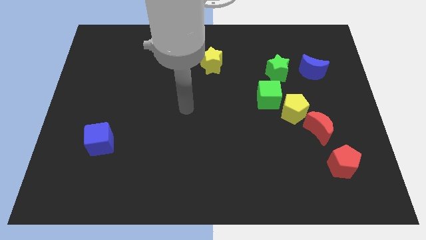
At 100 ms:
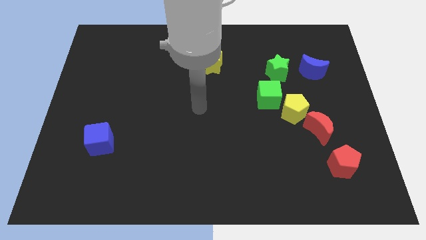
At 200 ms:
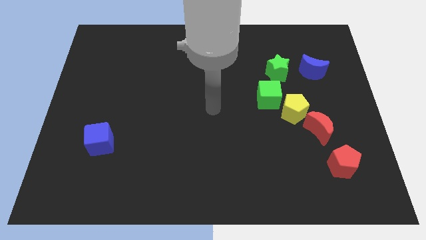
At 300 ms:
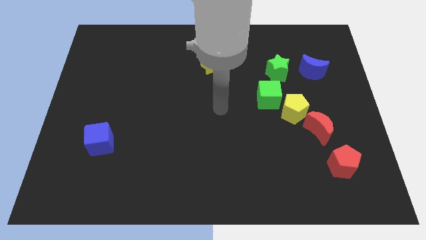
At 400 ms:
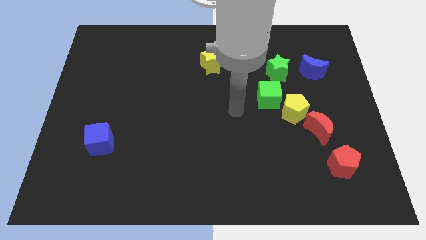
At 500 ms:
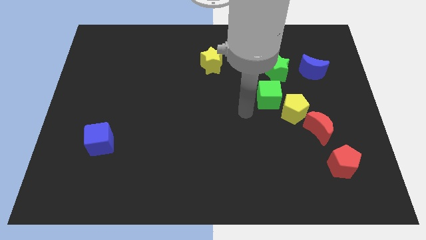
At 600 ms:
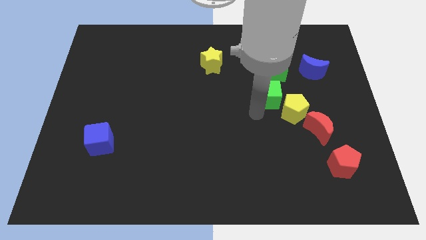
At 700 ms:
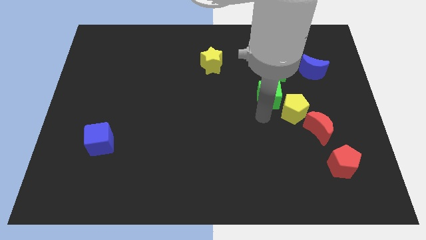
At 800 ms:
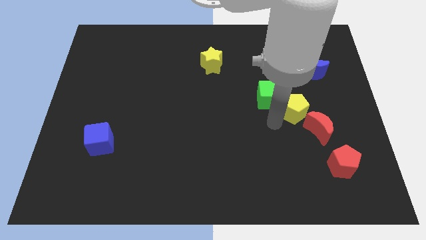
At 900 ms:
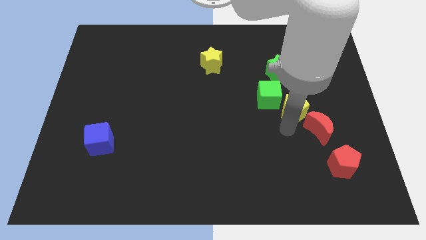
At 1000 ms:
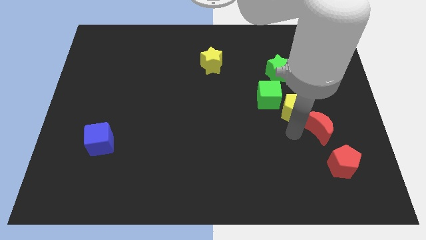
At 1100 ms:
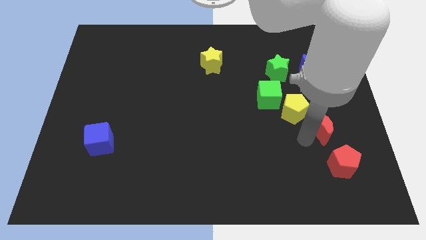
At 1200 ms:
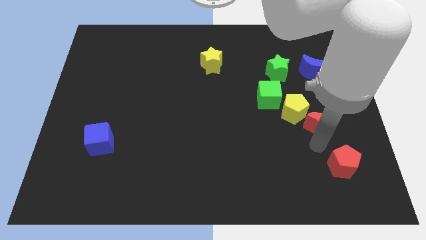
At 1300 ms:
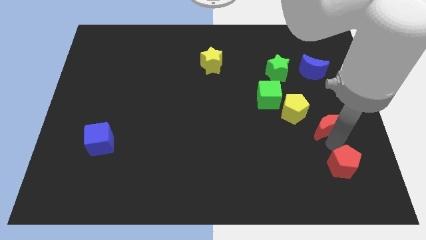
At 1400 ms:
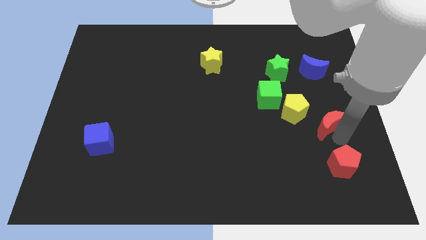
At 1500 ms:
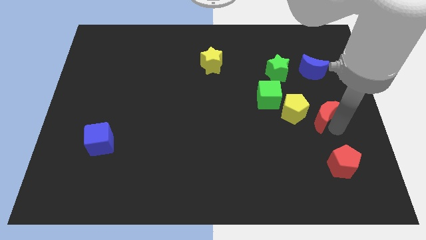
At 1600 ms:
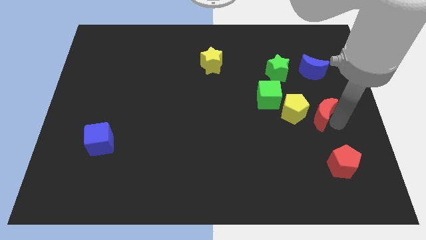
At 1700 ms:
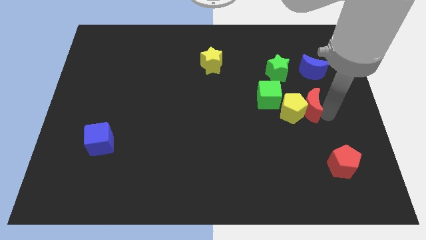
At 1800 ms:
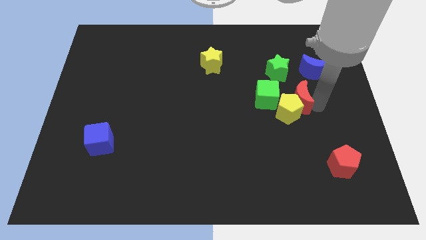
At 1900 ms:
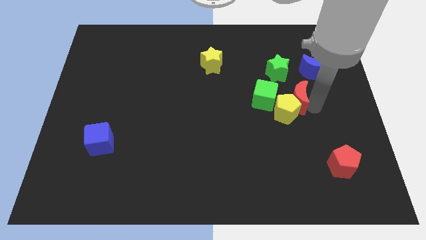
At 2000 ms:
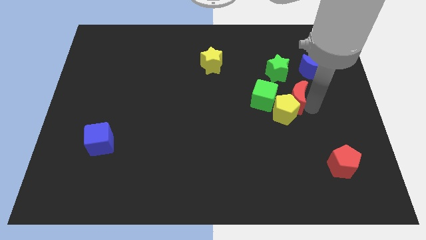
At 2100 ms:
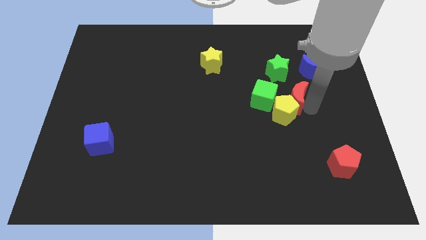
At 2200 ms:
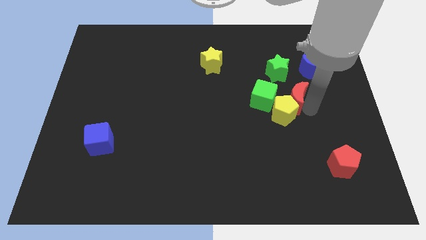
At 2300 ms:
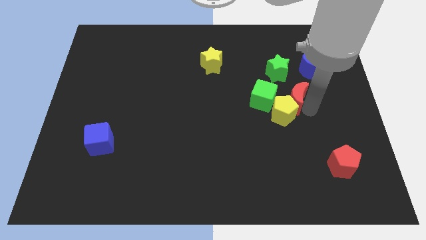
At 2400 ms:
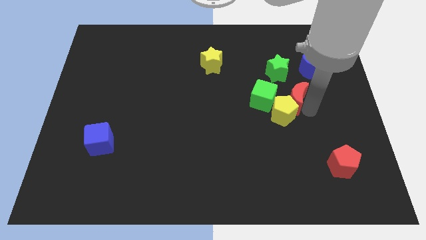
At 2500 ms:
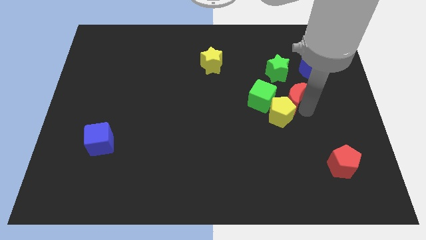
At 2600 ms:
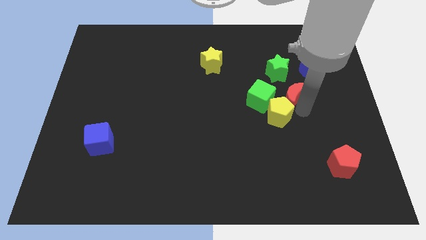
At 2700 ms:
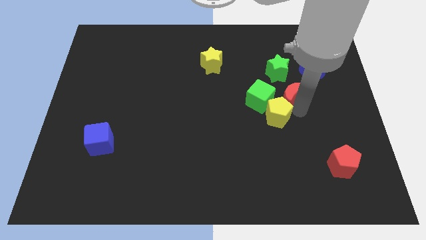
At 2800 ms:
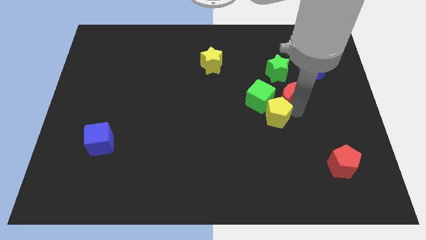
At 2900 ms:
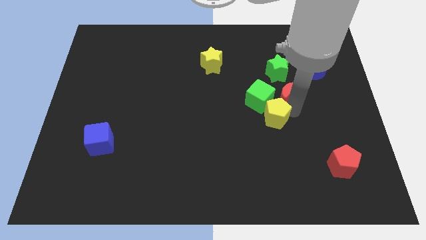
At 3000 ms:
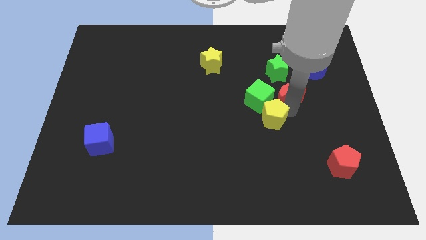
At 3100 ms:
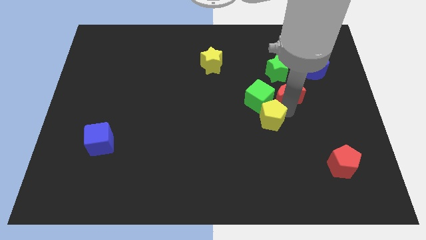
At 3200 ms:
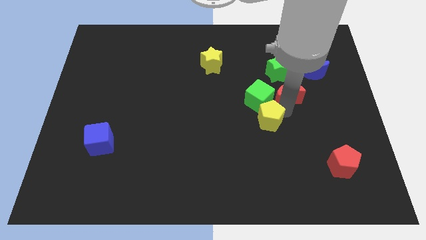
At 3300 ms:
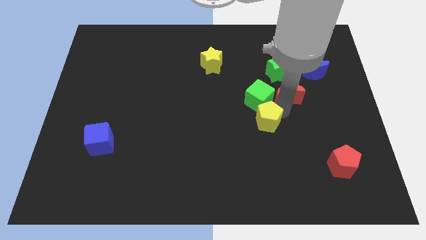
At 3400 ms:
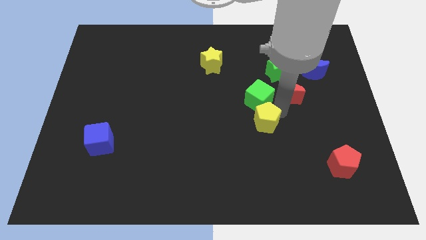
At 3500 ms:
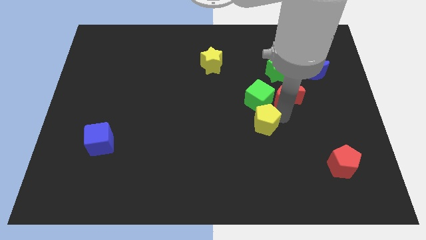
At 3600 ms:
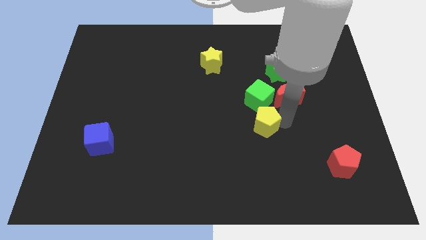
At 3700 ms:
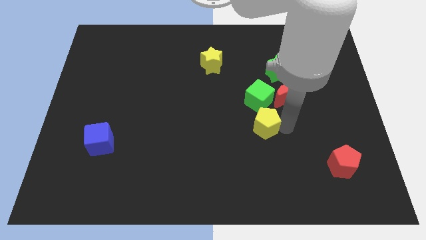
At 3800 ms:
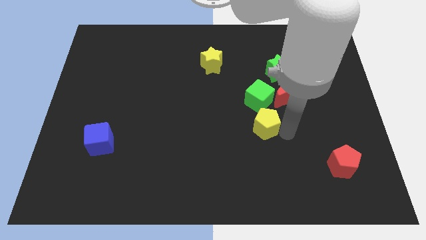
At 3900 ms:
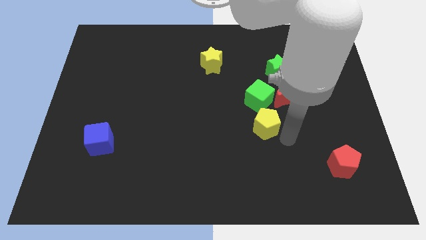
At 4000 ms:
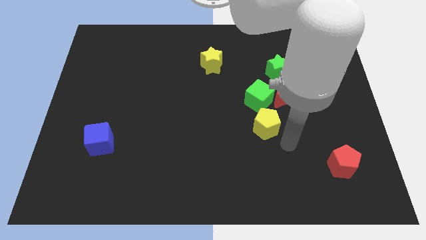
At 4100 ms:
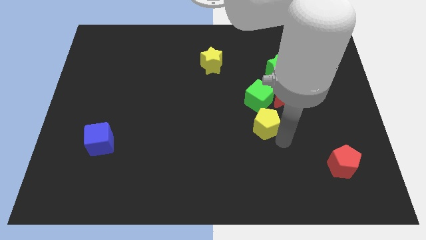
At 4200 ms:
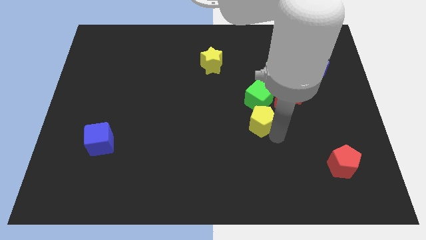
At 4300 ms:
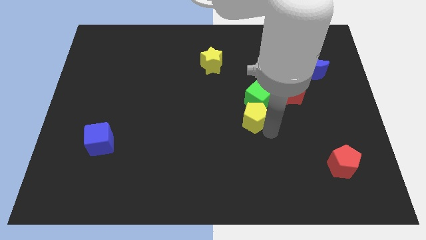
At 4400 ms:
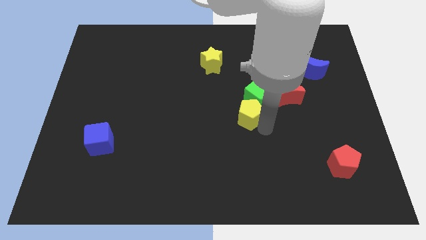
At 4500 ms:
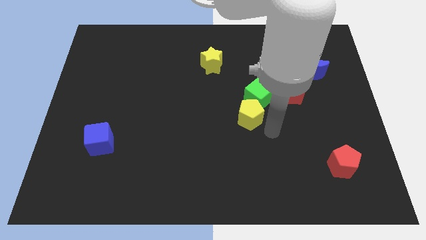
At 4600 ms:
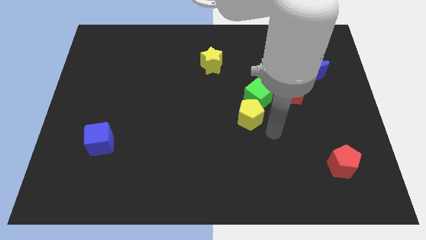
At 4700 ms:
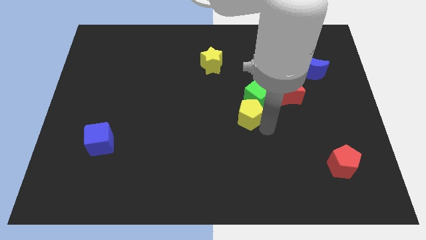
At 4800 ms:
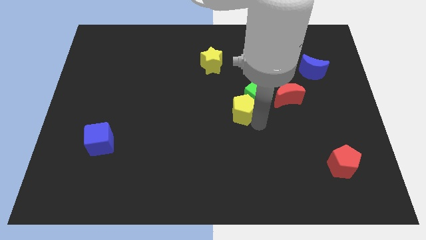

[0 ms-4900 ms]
push the yellow pentagon just left of the green cube

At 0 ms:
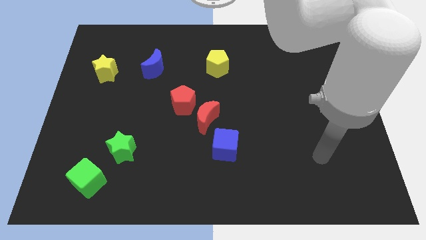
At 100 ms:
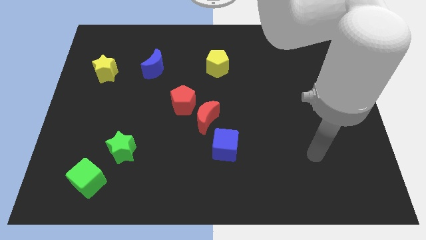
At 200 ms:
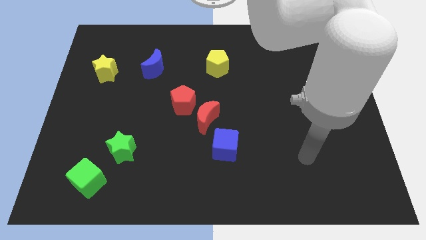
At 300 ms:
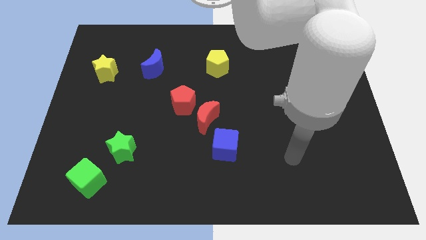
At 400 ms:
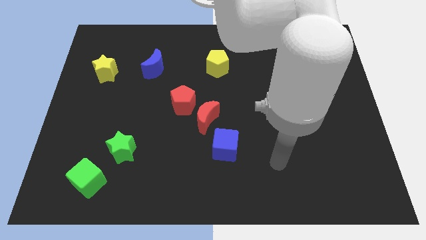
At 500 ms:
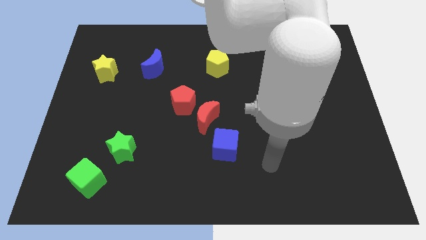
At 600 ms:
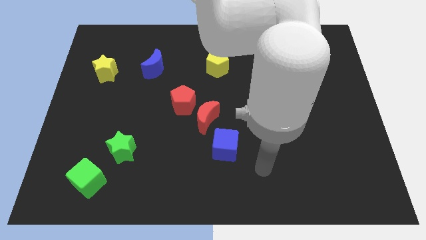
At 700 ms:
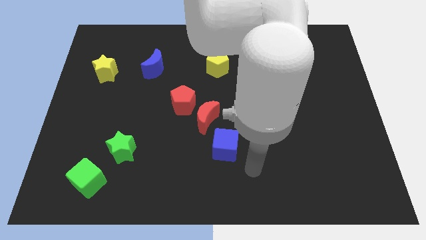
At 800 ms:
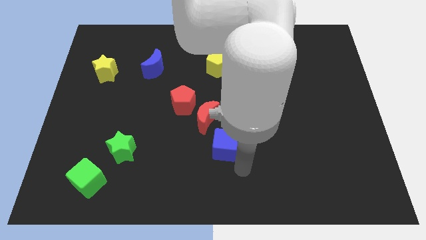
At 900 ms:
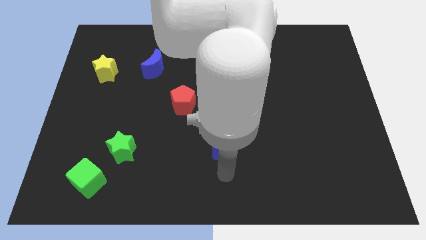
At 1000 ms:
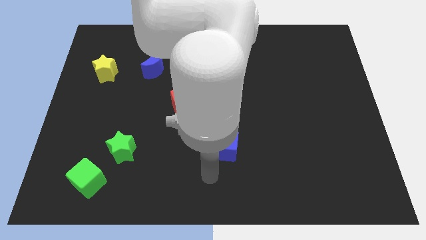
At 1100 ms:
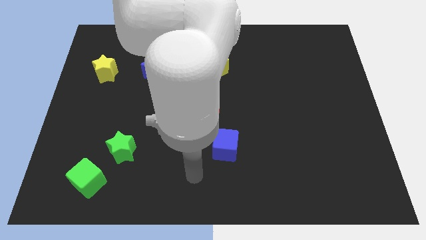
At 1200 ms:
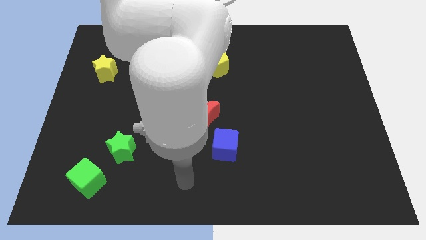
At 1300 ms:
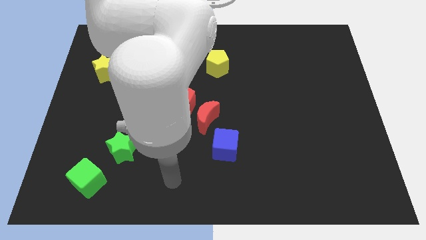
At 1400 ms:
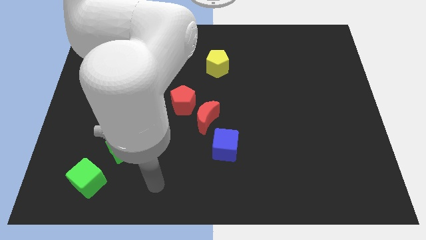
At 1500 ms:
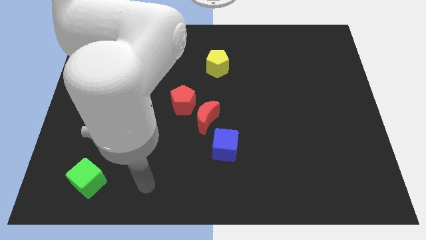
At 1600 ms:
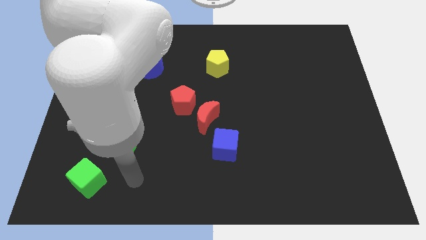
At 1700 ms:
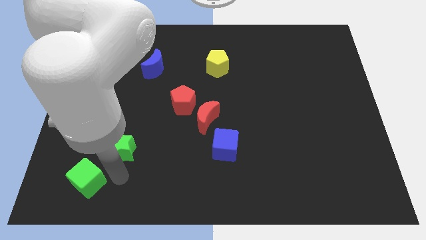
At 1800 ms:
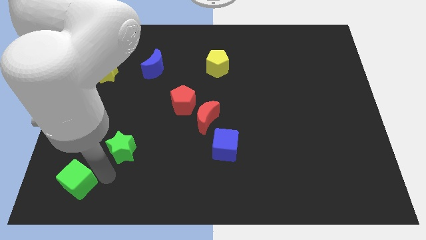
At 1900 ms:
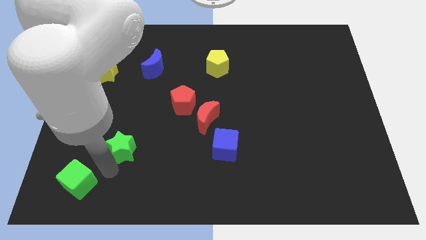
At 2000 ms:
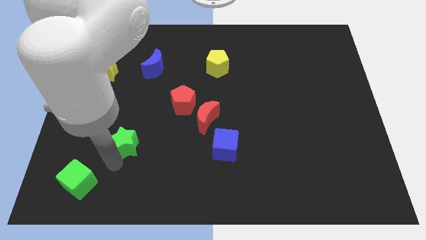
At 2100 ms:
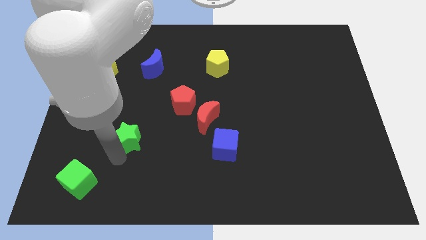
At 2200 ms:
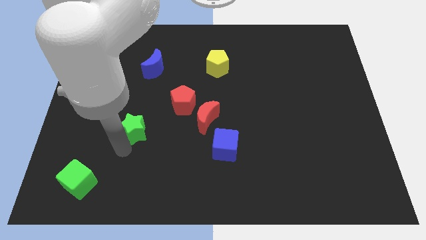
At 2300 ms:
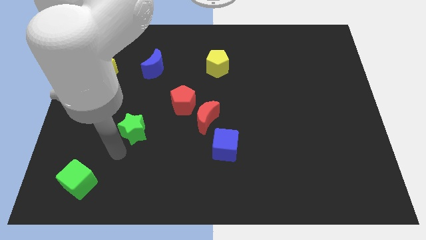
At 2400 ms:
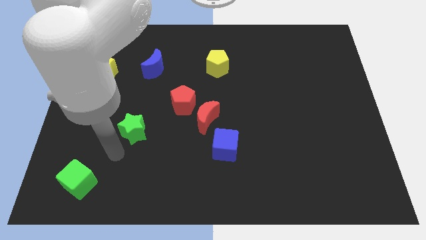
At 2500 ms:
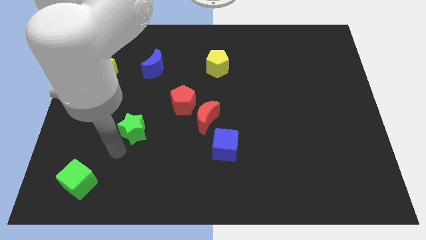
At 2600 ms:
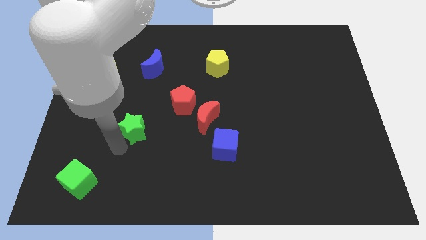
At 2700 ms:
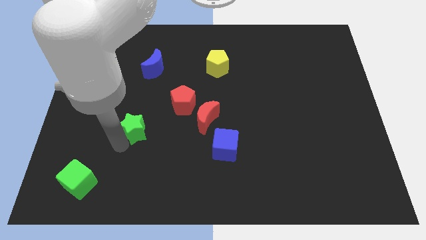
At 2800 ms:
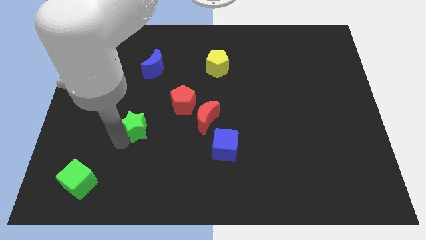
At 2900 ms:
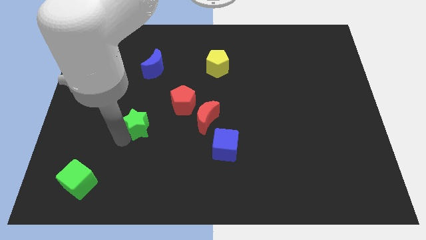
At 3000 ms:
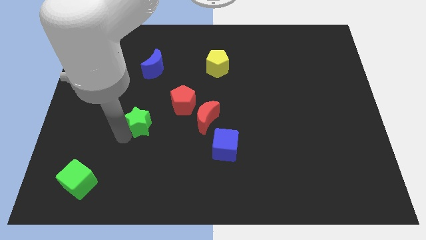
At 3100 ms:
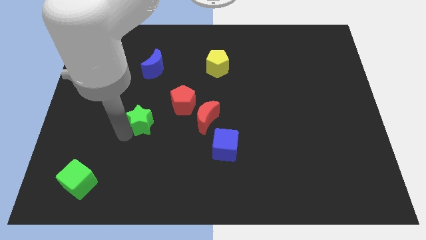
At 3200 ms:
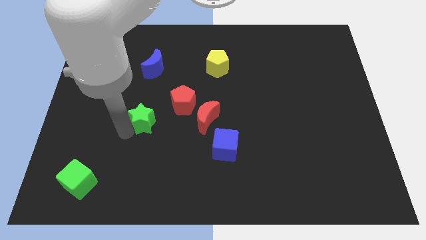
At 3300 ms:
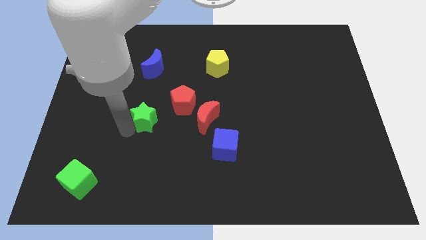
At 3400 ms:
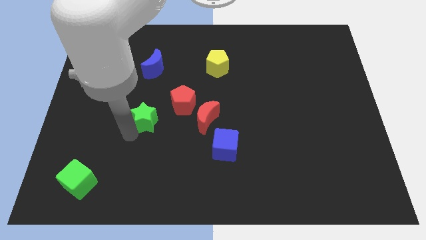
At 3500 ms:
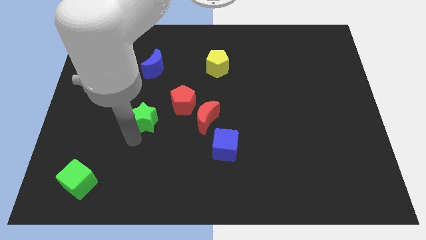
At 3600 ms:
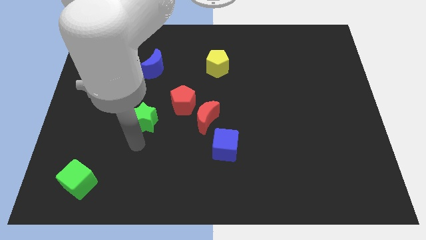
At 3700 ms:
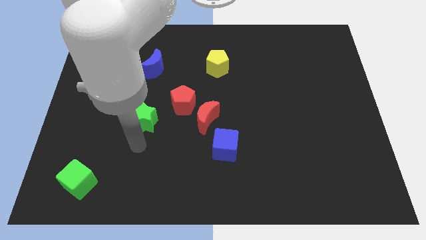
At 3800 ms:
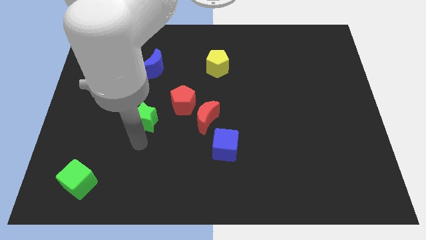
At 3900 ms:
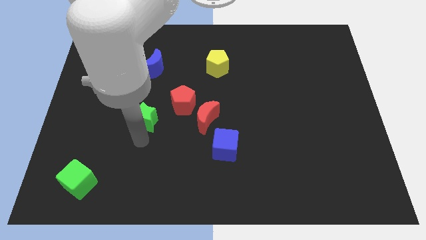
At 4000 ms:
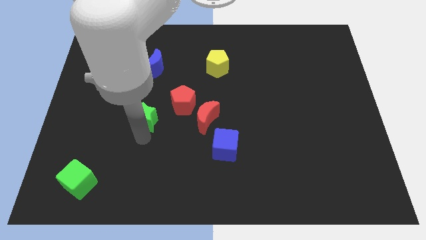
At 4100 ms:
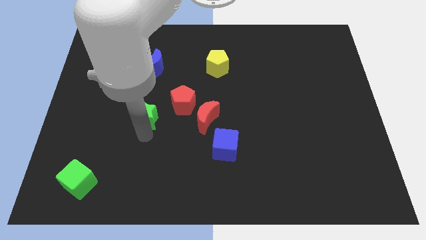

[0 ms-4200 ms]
put the green star below the blue moon
